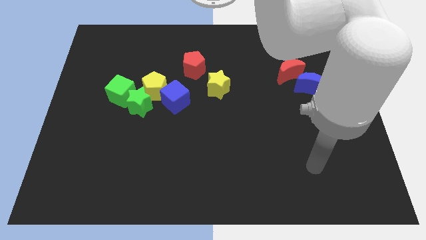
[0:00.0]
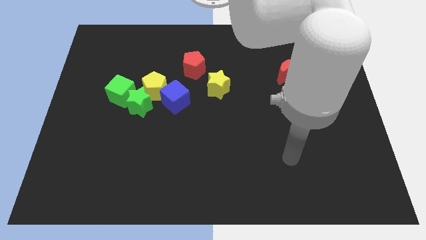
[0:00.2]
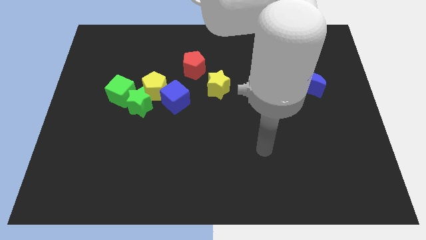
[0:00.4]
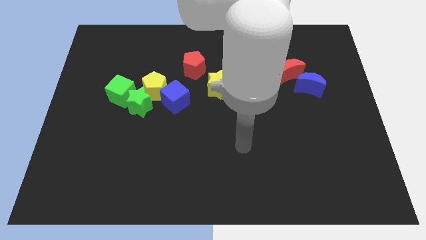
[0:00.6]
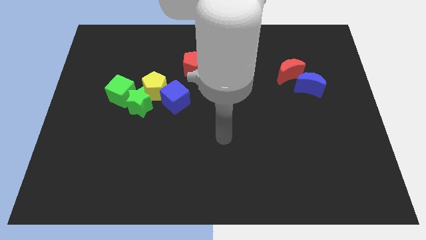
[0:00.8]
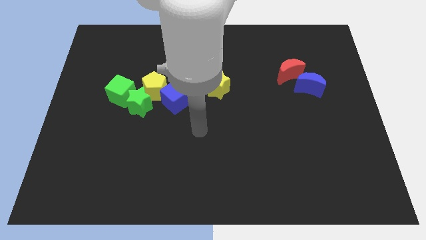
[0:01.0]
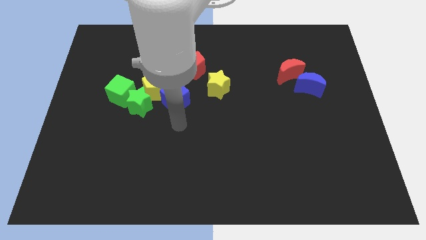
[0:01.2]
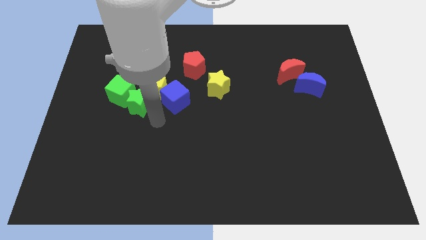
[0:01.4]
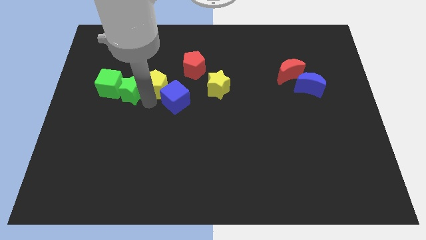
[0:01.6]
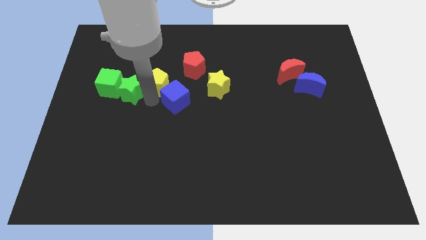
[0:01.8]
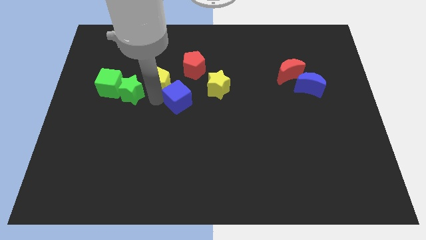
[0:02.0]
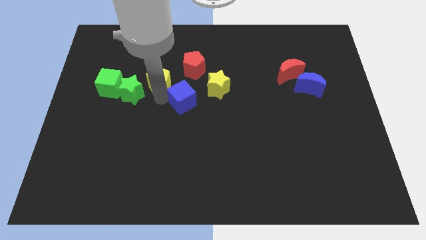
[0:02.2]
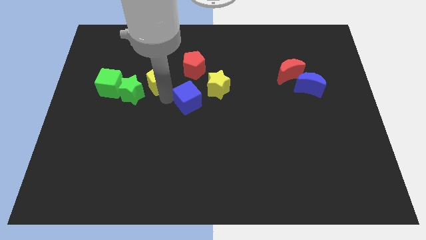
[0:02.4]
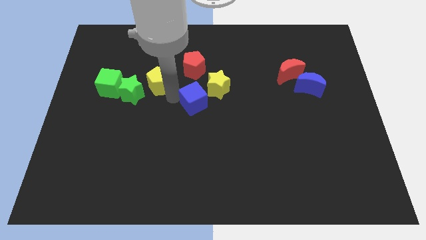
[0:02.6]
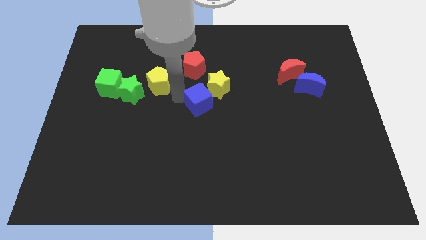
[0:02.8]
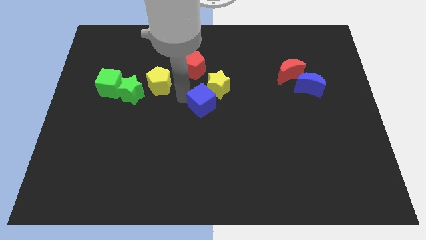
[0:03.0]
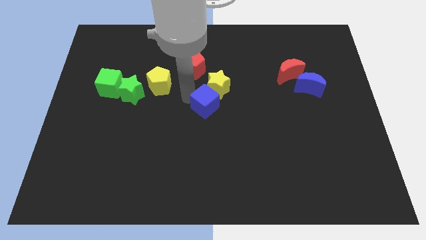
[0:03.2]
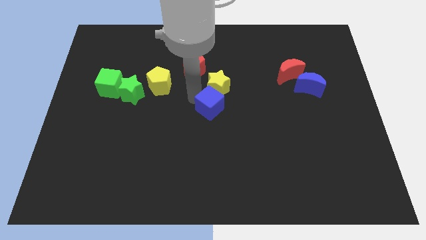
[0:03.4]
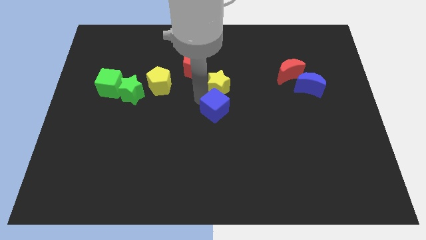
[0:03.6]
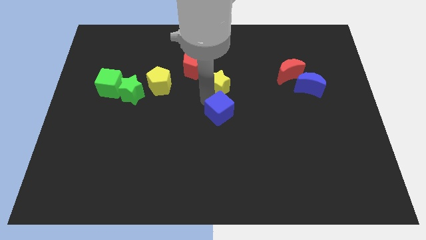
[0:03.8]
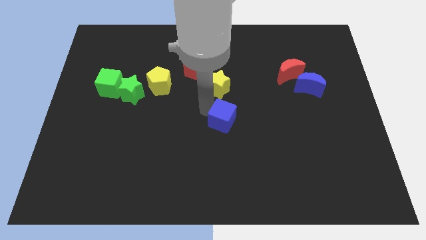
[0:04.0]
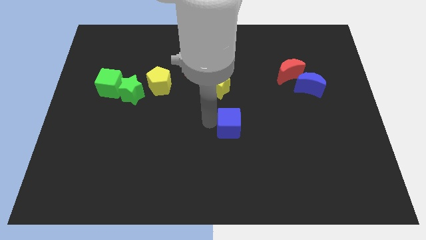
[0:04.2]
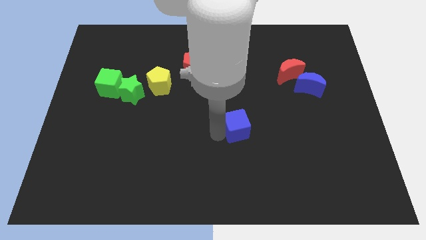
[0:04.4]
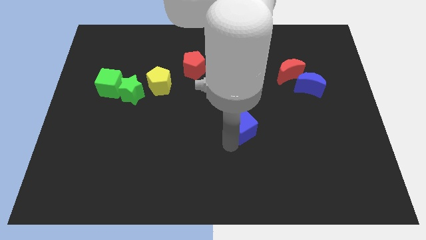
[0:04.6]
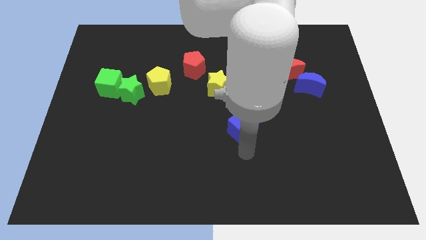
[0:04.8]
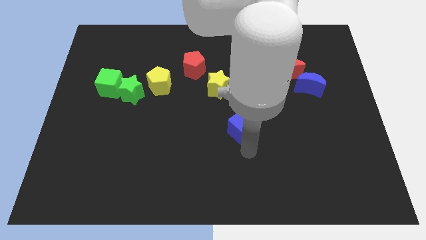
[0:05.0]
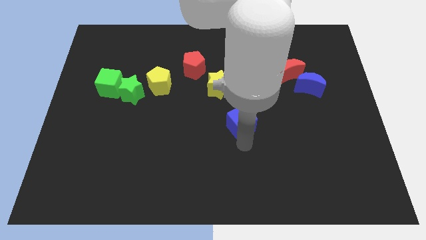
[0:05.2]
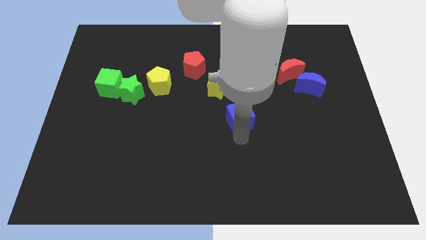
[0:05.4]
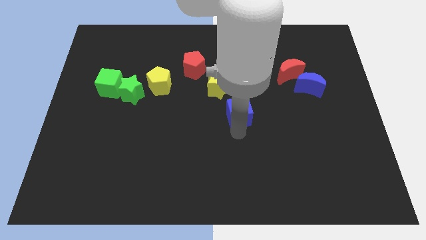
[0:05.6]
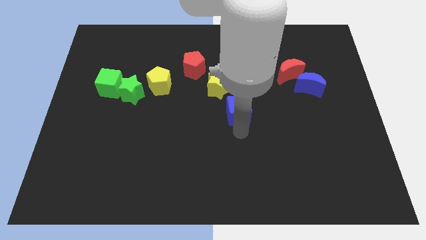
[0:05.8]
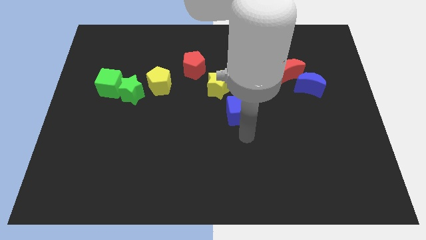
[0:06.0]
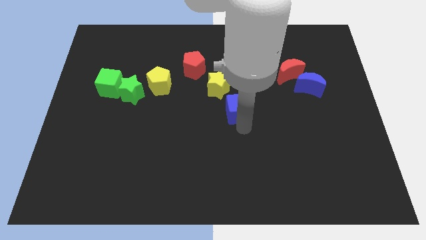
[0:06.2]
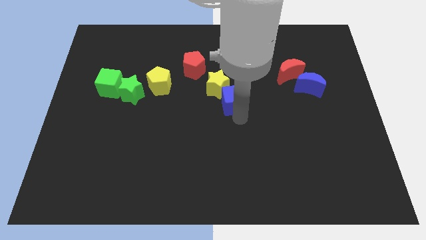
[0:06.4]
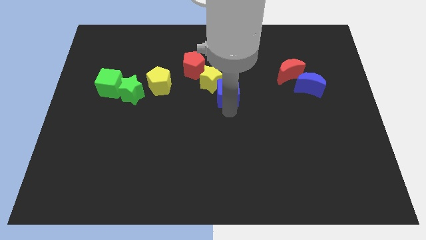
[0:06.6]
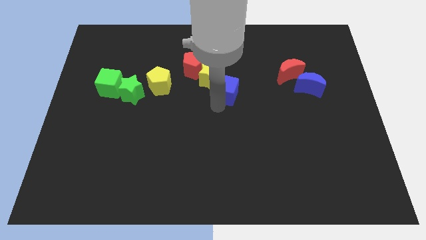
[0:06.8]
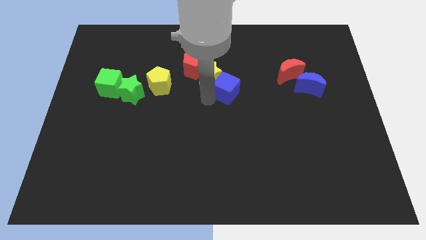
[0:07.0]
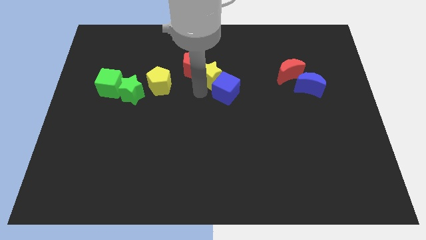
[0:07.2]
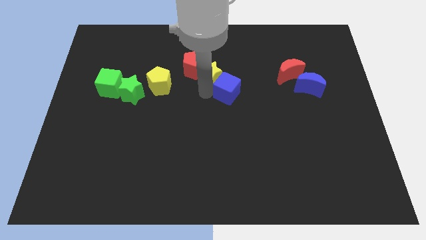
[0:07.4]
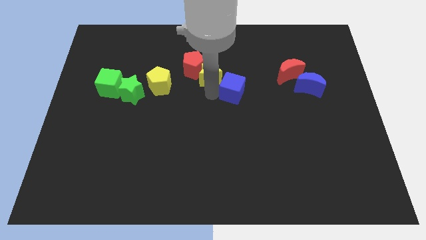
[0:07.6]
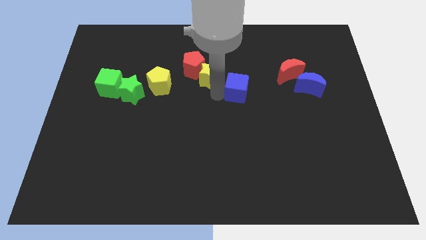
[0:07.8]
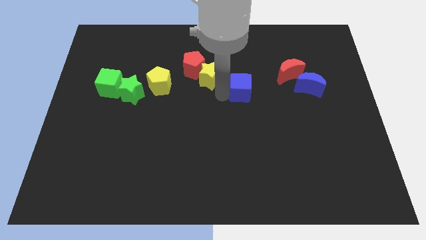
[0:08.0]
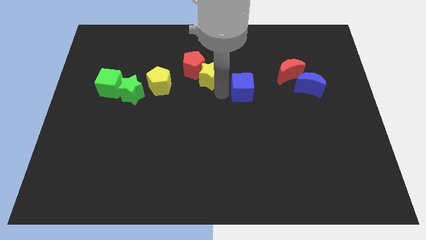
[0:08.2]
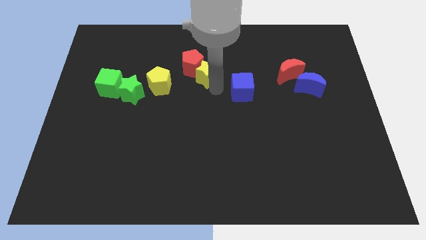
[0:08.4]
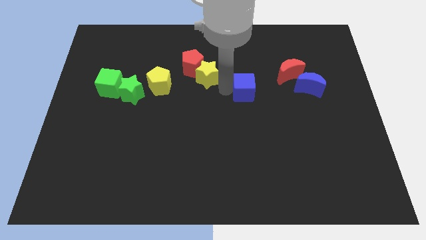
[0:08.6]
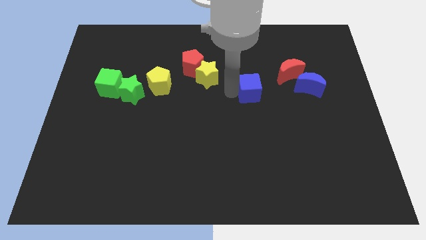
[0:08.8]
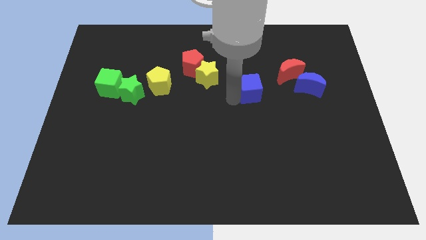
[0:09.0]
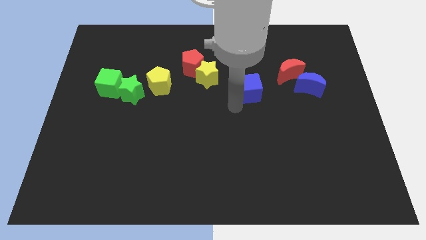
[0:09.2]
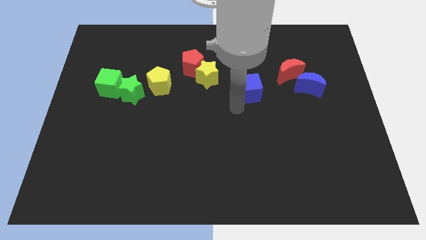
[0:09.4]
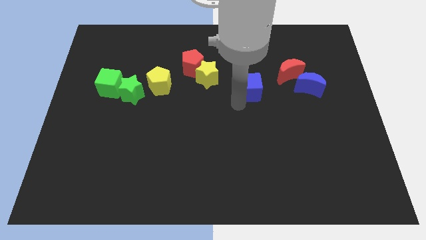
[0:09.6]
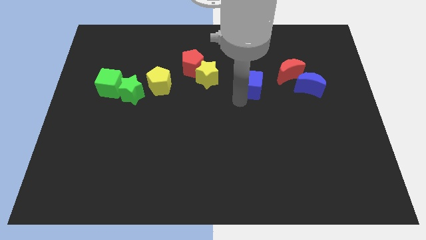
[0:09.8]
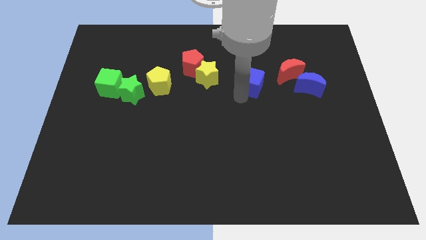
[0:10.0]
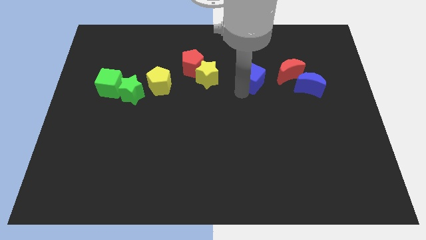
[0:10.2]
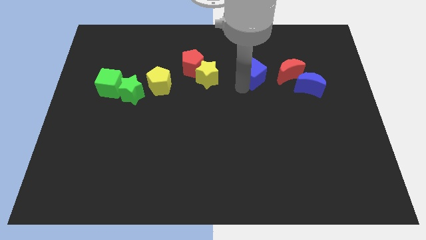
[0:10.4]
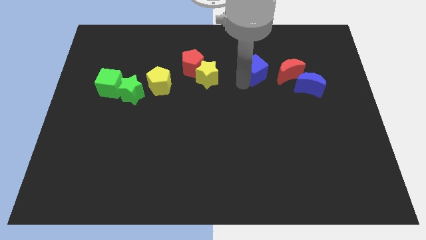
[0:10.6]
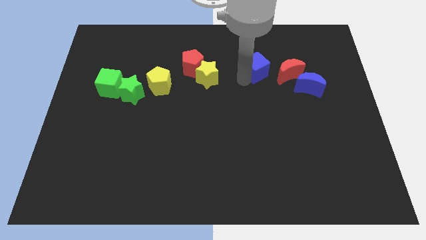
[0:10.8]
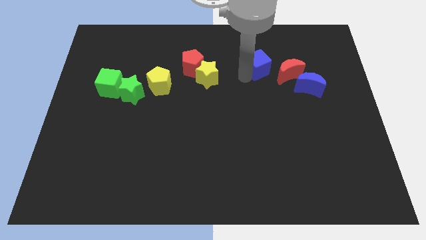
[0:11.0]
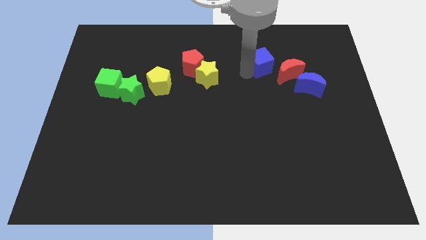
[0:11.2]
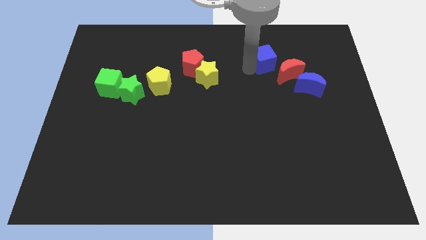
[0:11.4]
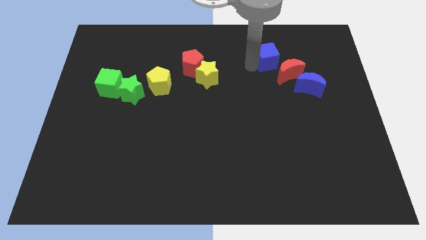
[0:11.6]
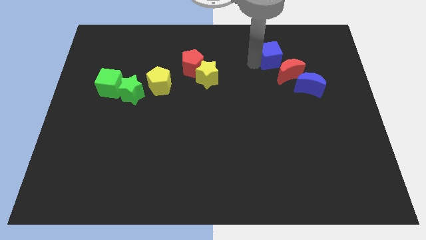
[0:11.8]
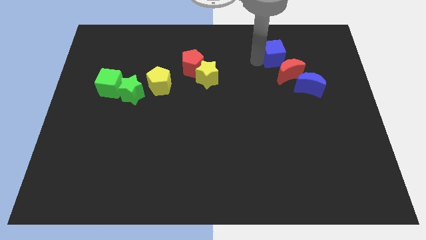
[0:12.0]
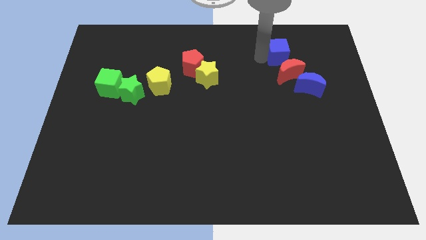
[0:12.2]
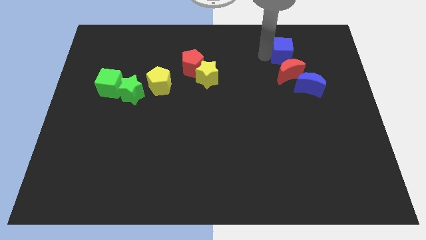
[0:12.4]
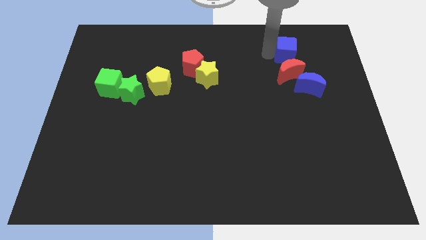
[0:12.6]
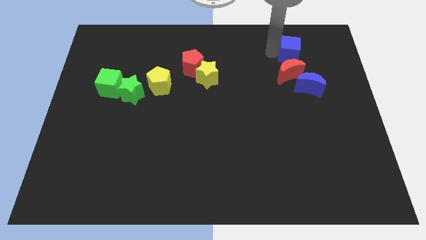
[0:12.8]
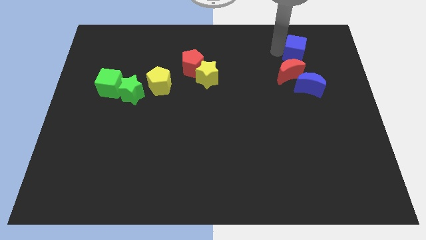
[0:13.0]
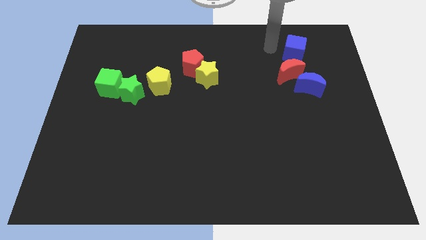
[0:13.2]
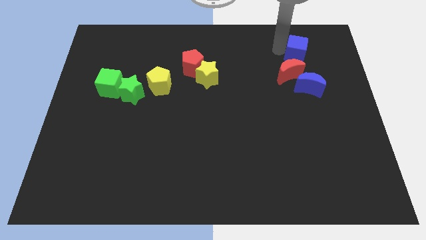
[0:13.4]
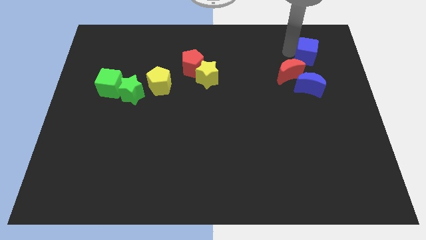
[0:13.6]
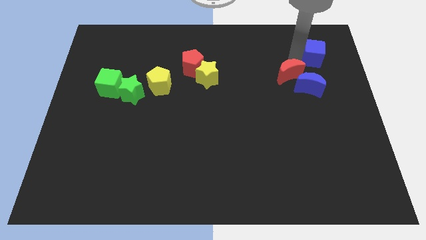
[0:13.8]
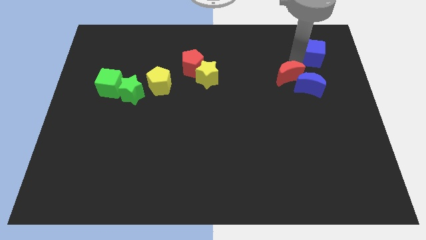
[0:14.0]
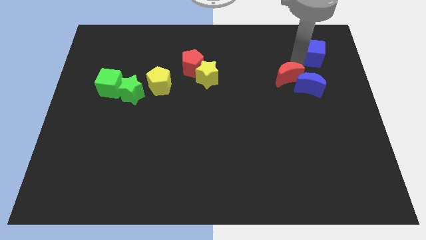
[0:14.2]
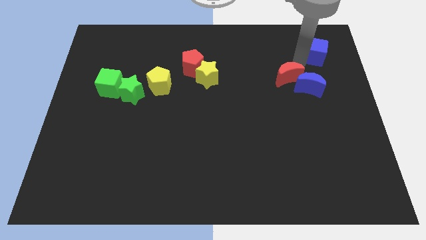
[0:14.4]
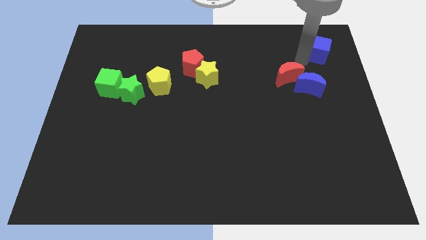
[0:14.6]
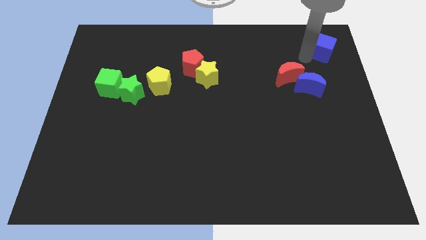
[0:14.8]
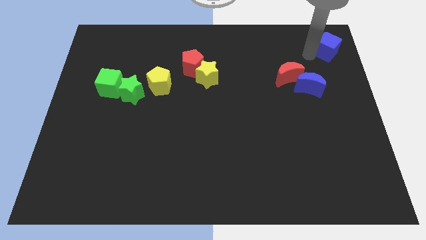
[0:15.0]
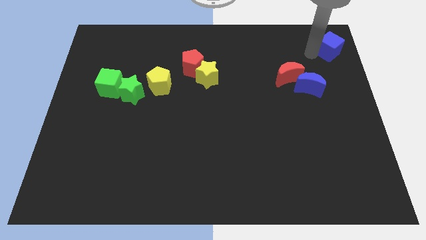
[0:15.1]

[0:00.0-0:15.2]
put the blue cube to the upper right corner
